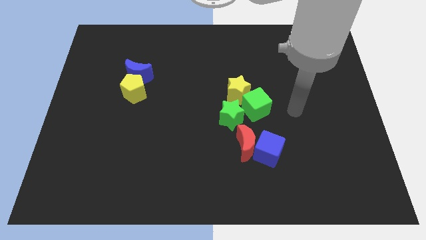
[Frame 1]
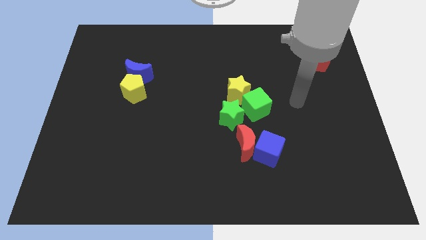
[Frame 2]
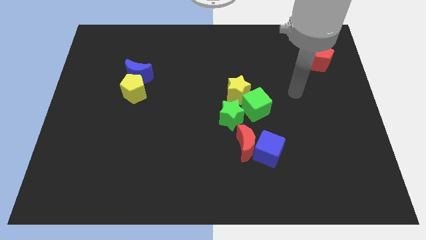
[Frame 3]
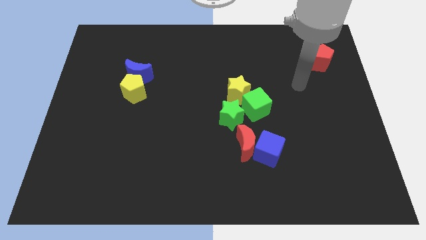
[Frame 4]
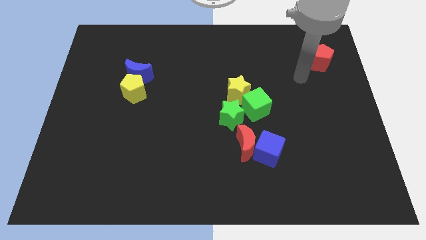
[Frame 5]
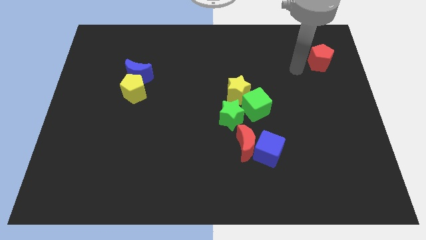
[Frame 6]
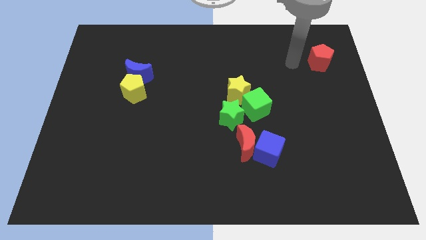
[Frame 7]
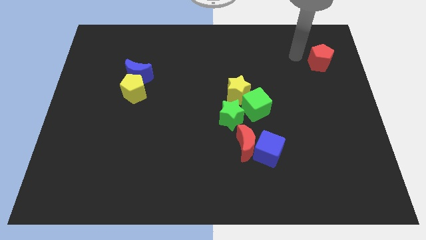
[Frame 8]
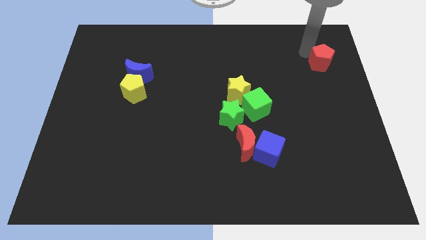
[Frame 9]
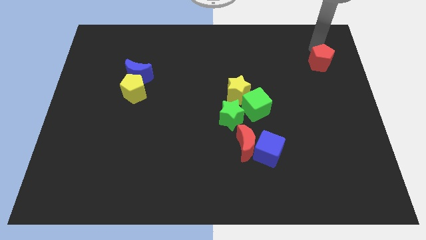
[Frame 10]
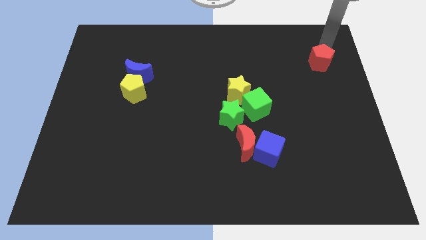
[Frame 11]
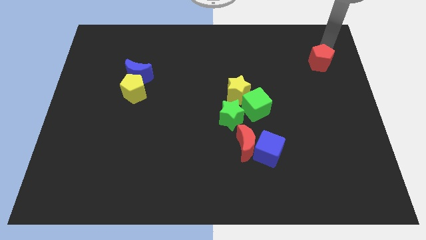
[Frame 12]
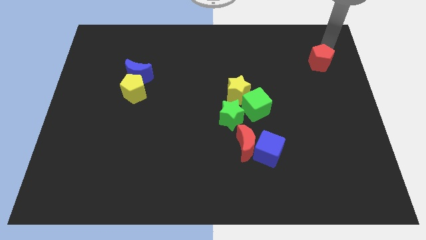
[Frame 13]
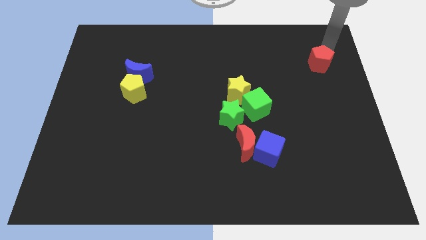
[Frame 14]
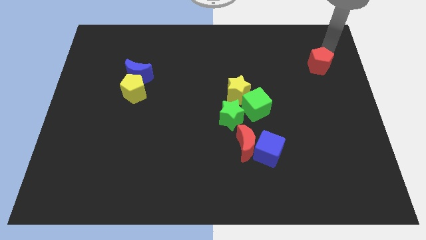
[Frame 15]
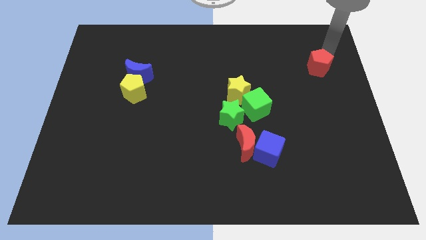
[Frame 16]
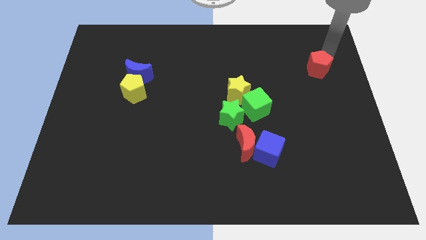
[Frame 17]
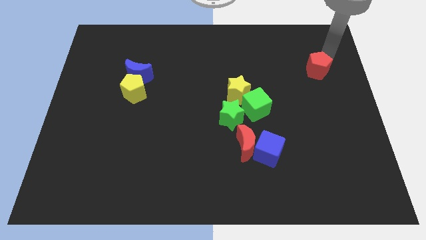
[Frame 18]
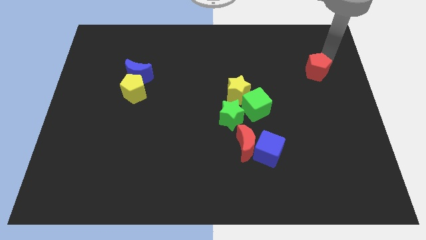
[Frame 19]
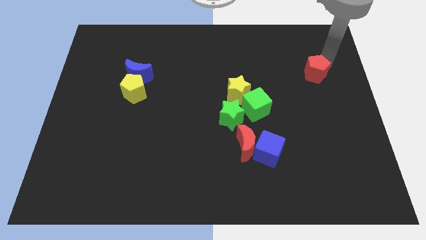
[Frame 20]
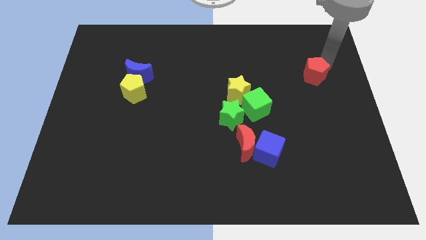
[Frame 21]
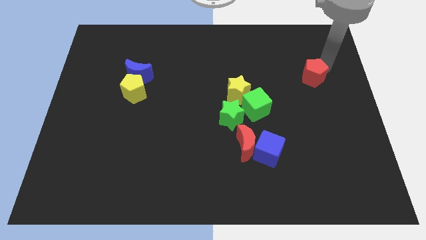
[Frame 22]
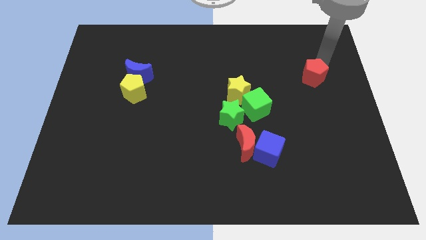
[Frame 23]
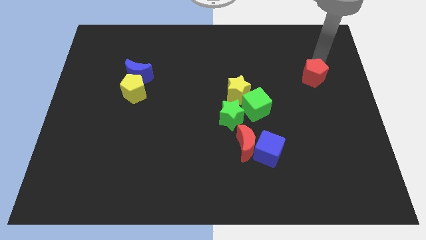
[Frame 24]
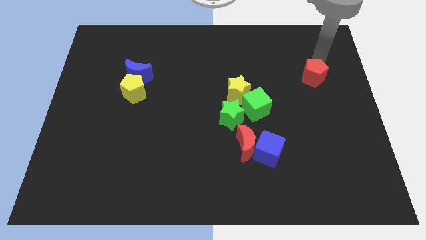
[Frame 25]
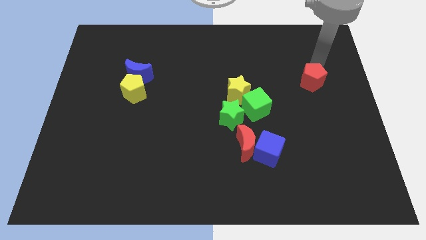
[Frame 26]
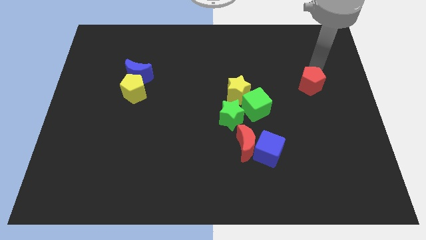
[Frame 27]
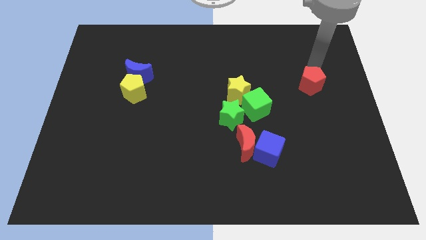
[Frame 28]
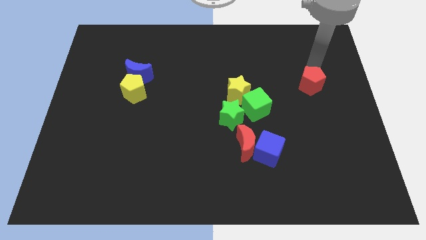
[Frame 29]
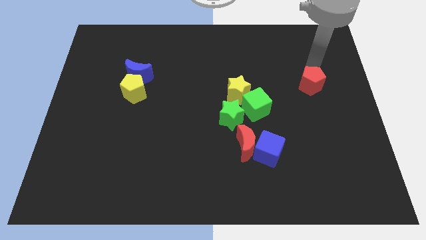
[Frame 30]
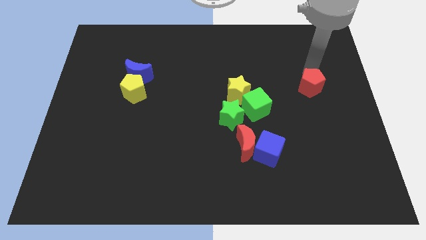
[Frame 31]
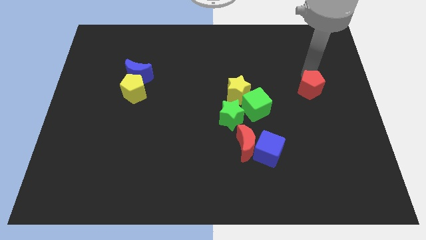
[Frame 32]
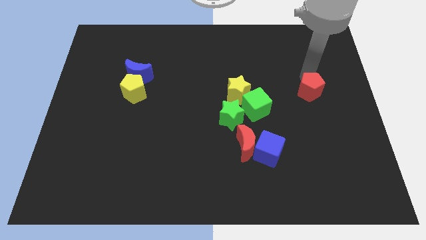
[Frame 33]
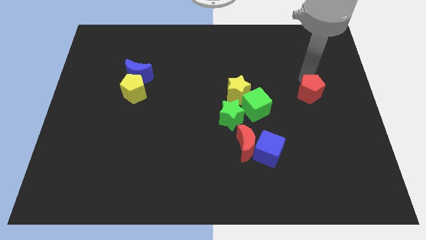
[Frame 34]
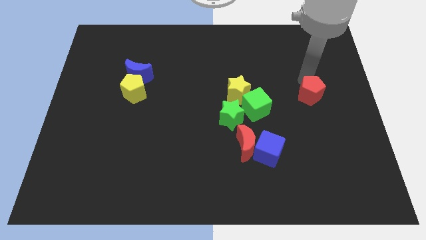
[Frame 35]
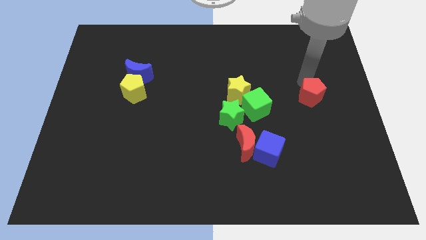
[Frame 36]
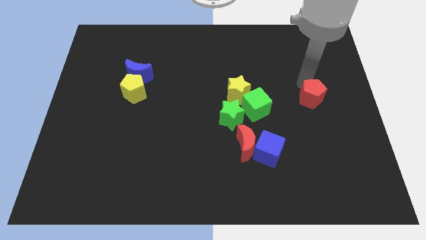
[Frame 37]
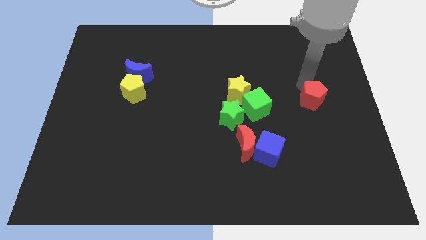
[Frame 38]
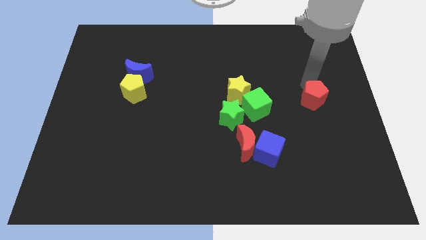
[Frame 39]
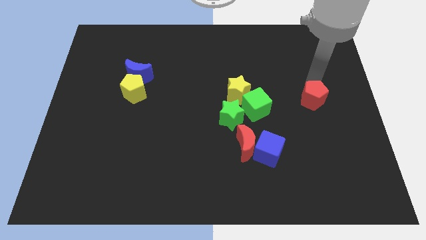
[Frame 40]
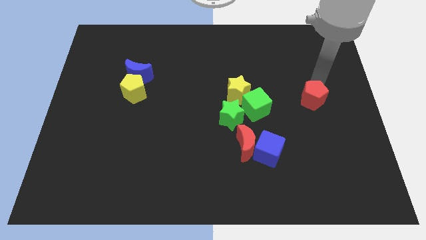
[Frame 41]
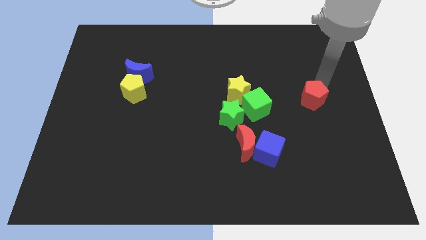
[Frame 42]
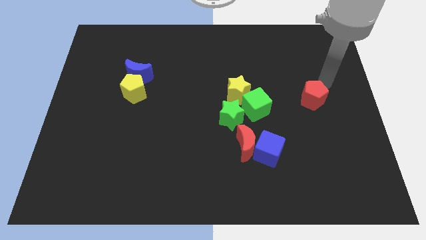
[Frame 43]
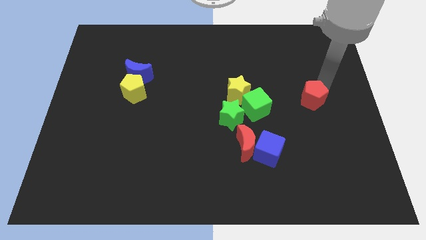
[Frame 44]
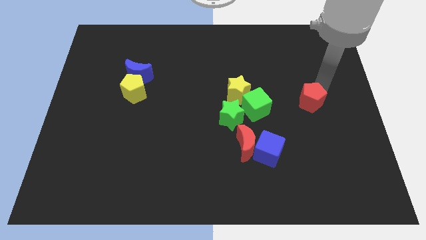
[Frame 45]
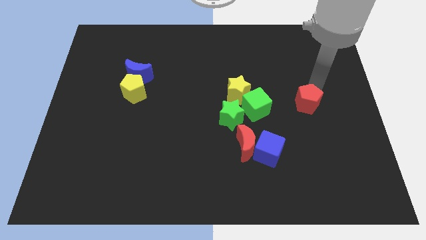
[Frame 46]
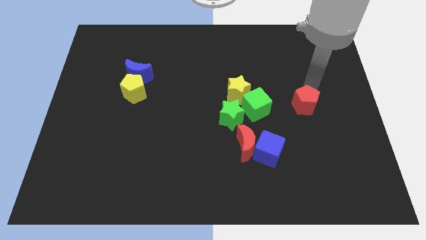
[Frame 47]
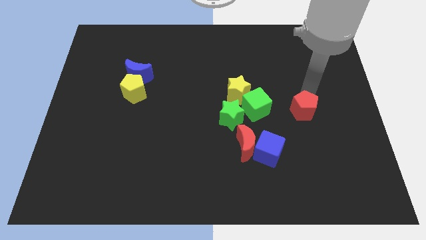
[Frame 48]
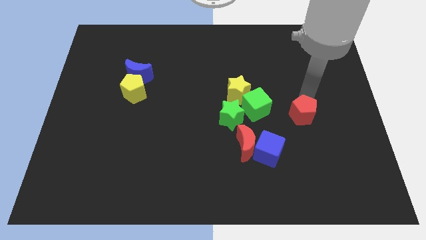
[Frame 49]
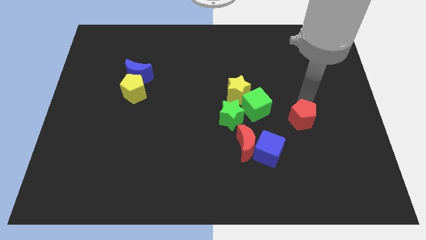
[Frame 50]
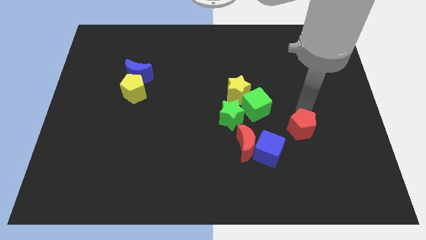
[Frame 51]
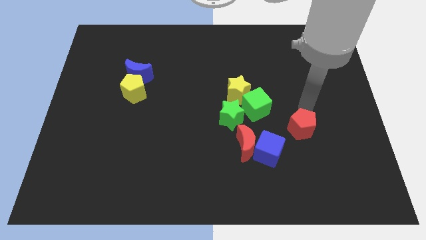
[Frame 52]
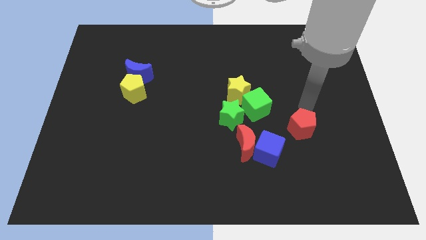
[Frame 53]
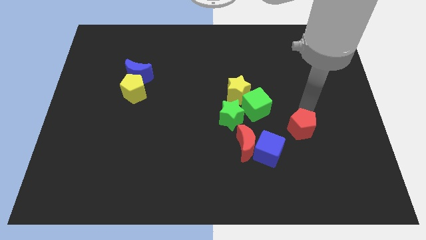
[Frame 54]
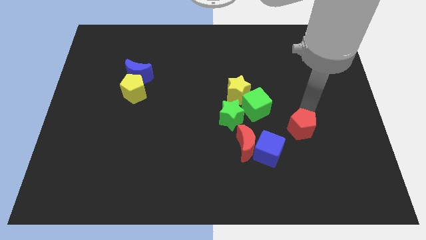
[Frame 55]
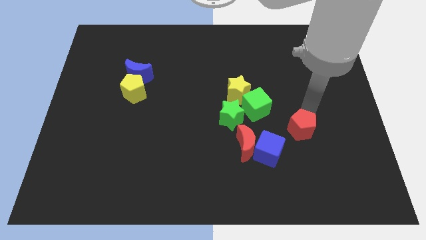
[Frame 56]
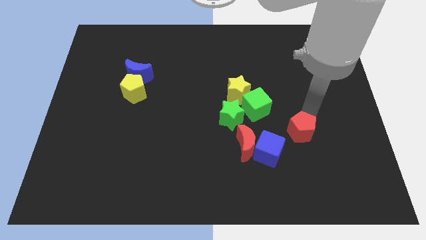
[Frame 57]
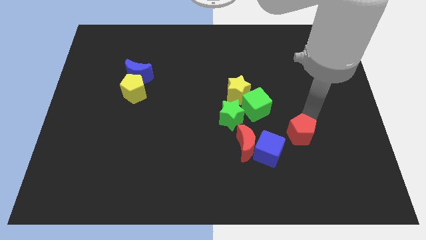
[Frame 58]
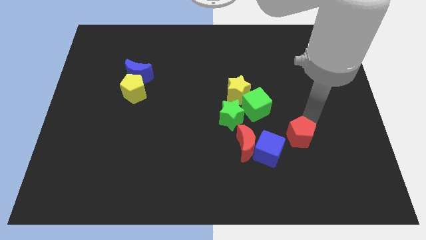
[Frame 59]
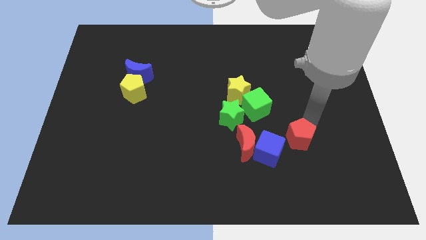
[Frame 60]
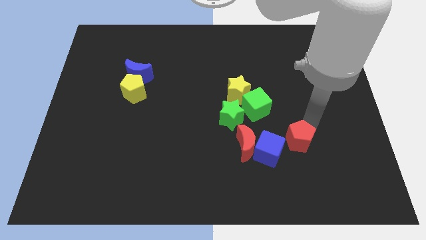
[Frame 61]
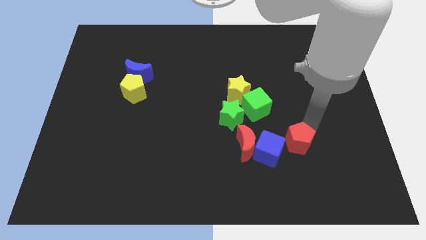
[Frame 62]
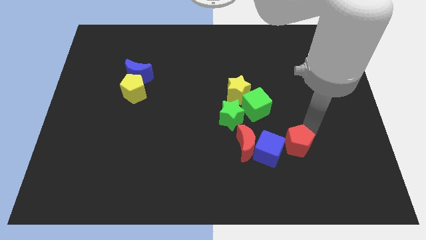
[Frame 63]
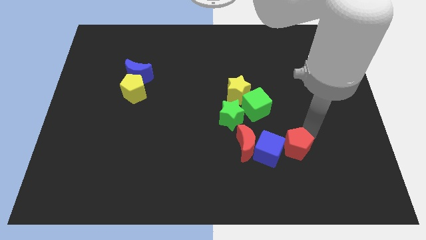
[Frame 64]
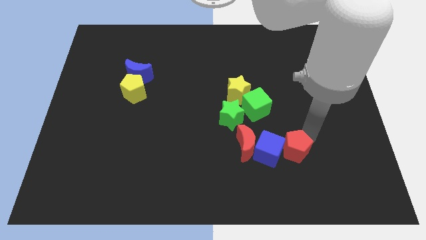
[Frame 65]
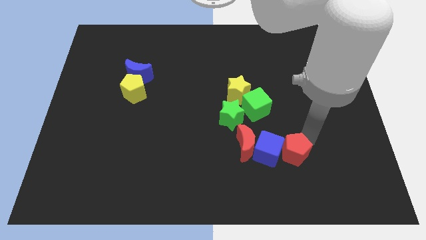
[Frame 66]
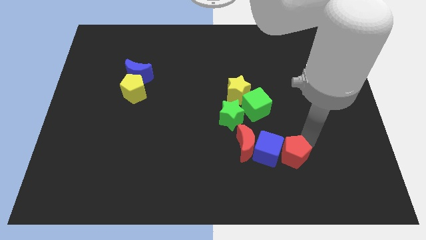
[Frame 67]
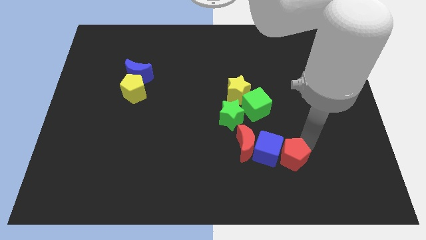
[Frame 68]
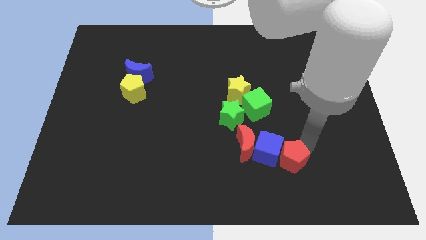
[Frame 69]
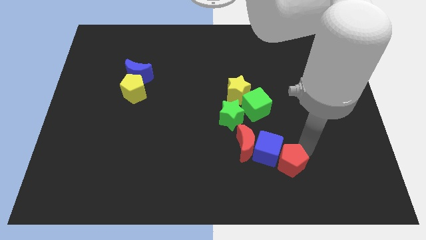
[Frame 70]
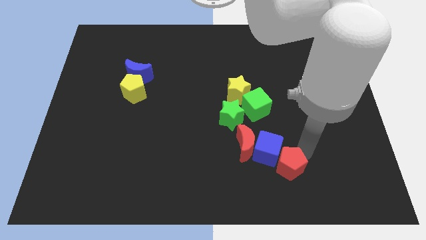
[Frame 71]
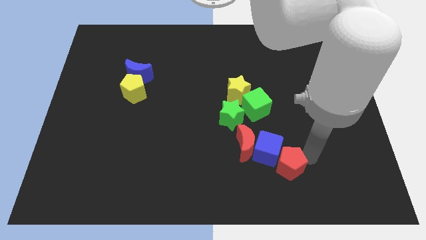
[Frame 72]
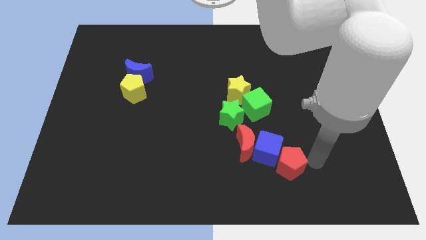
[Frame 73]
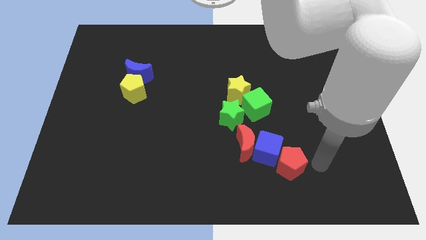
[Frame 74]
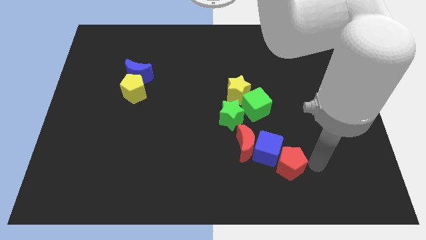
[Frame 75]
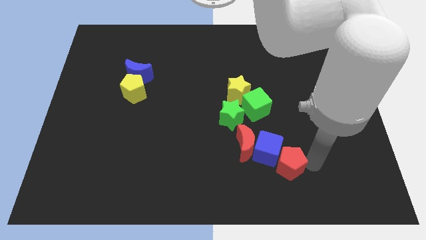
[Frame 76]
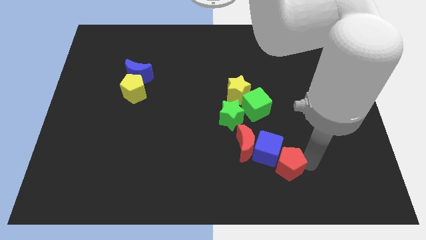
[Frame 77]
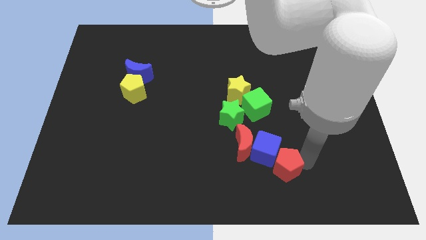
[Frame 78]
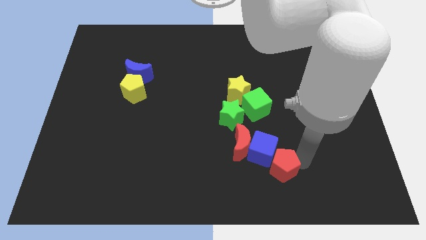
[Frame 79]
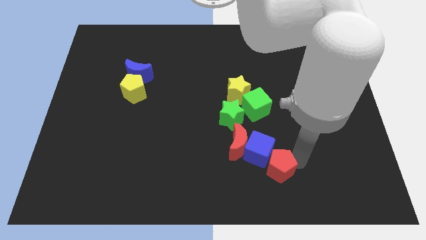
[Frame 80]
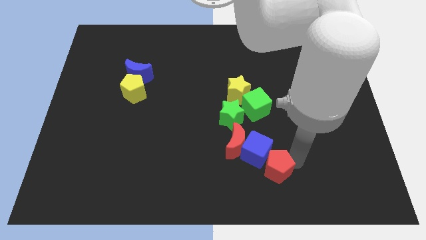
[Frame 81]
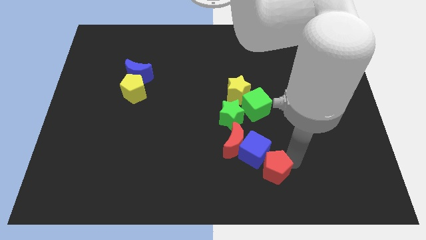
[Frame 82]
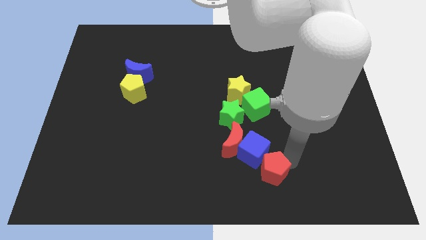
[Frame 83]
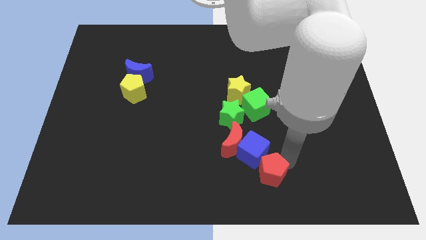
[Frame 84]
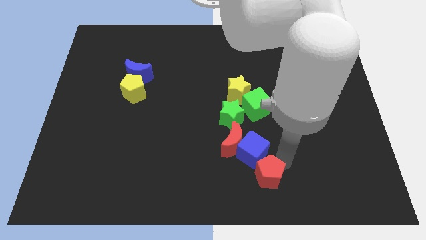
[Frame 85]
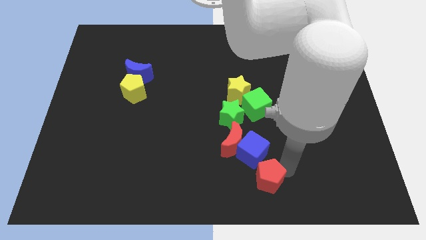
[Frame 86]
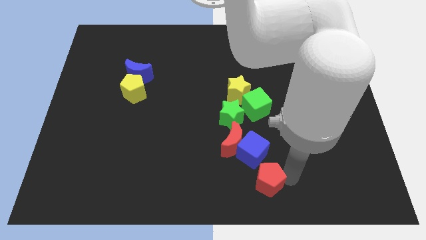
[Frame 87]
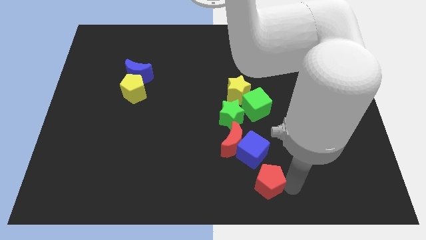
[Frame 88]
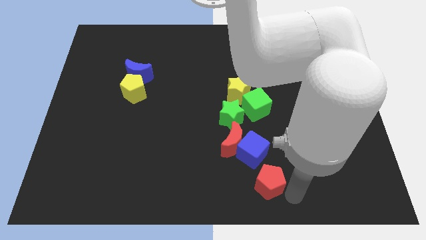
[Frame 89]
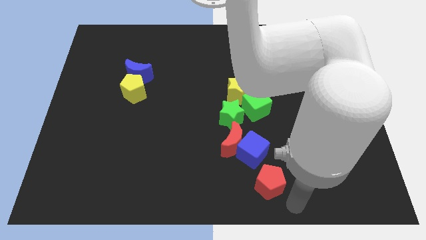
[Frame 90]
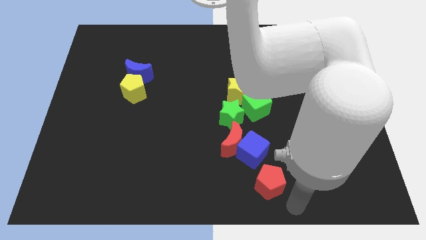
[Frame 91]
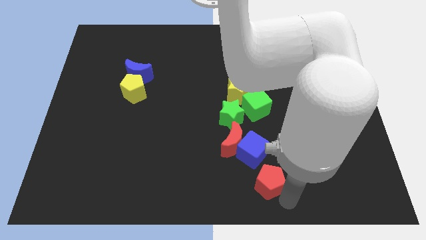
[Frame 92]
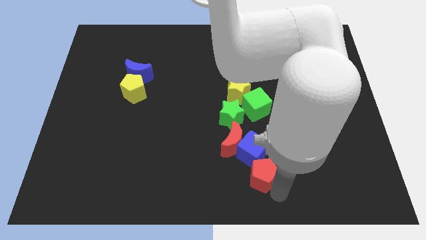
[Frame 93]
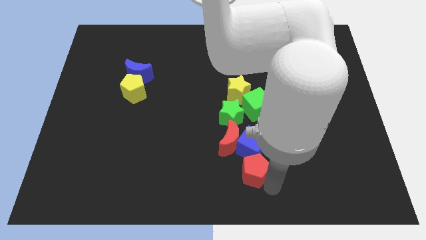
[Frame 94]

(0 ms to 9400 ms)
slide the red pentagon to the bottom side of the green star
